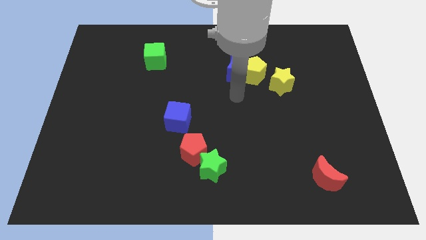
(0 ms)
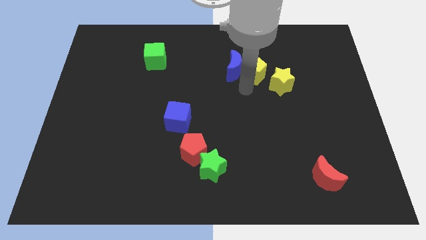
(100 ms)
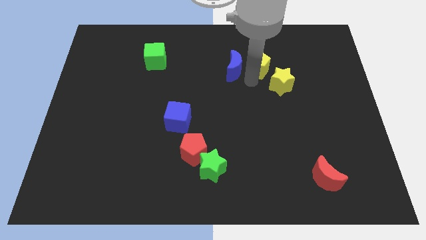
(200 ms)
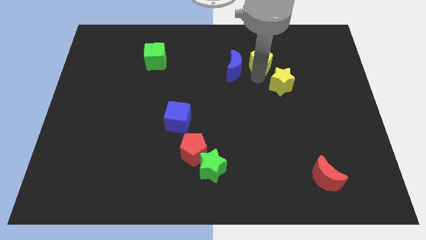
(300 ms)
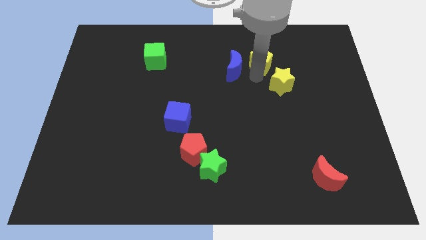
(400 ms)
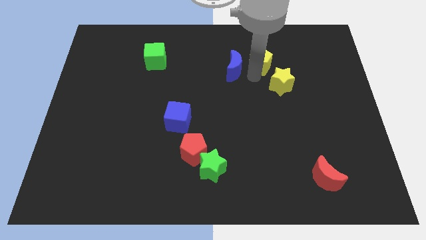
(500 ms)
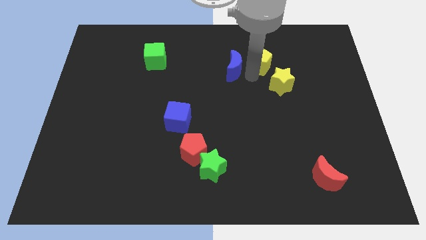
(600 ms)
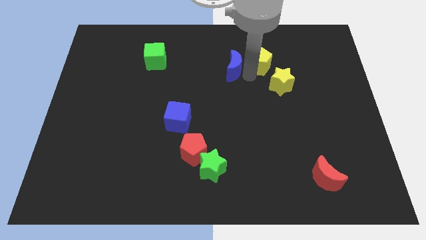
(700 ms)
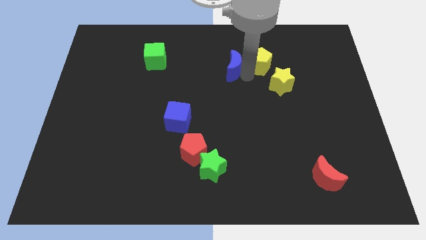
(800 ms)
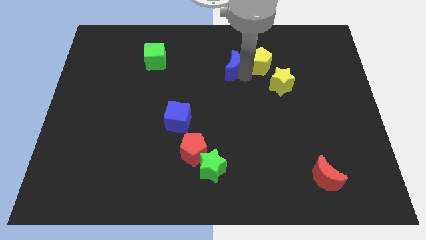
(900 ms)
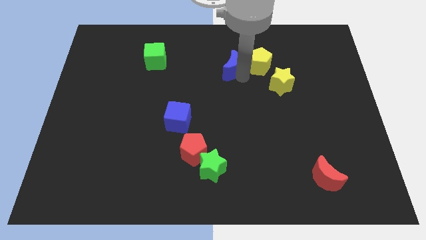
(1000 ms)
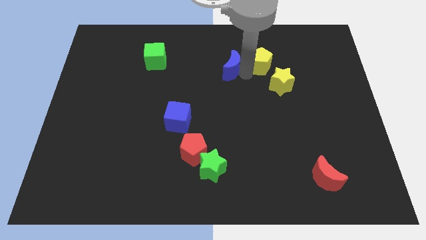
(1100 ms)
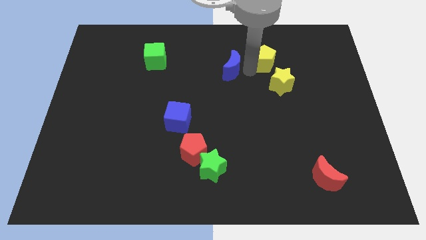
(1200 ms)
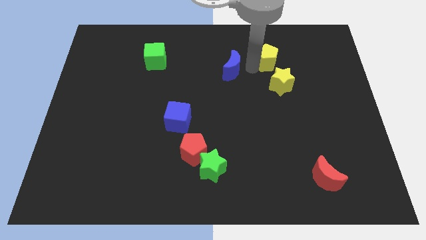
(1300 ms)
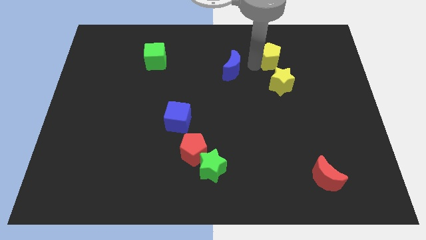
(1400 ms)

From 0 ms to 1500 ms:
separate the blue moon from the yellow pentagon

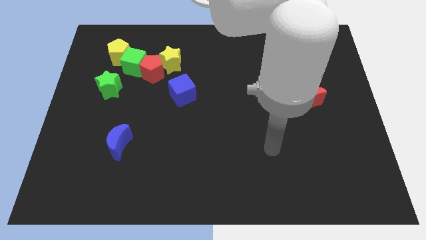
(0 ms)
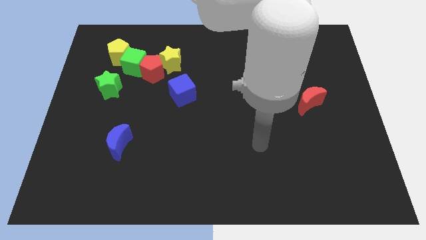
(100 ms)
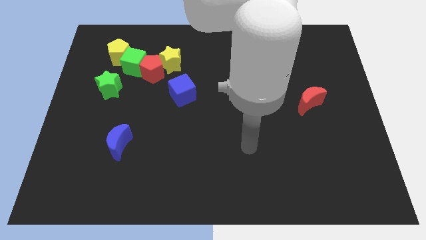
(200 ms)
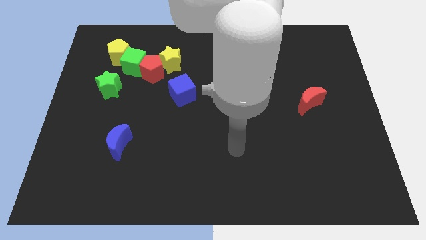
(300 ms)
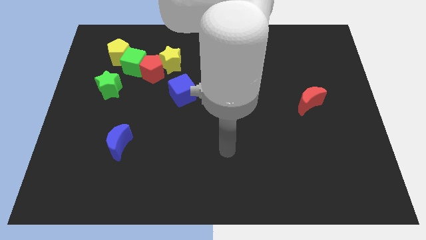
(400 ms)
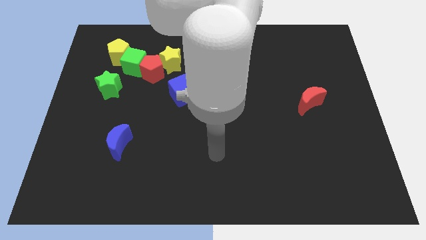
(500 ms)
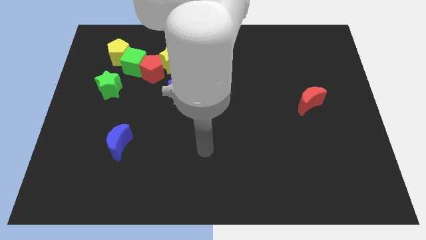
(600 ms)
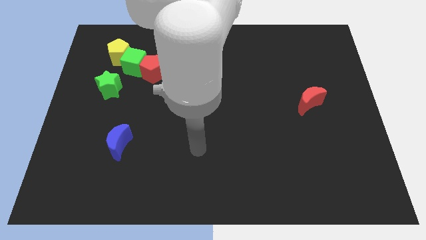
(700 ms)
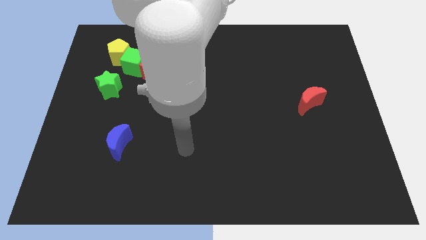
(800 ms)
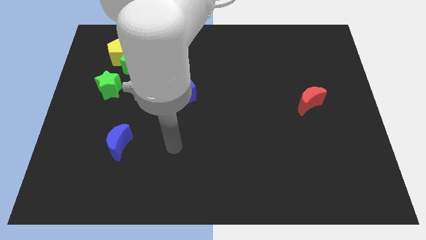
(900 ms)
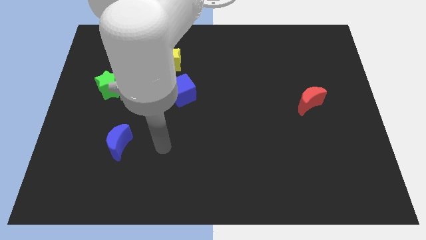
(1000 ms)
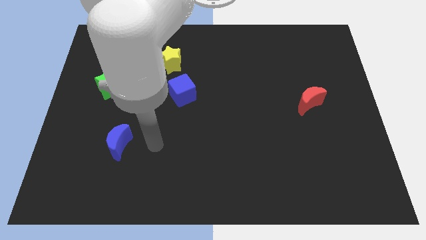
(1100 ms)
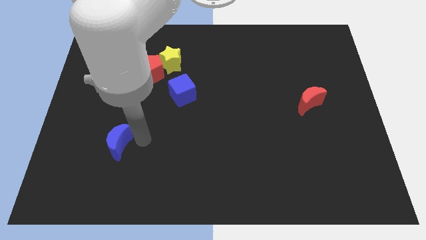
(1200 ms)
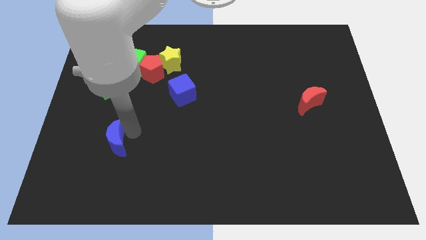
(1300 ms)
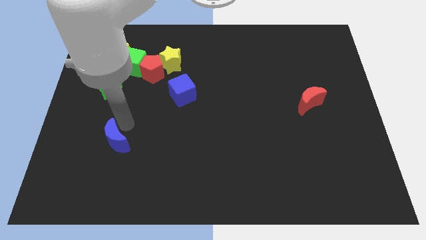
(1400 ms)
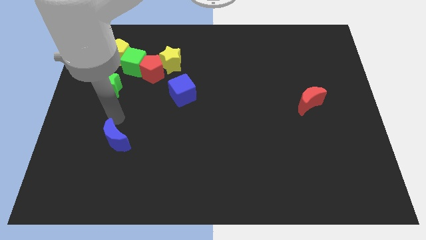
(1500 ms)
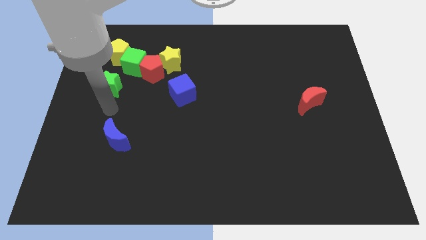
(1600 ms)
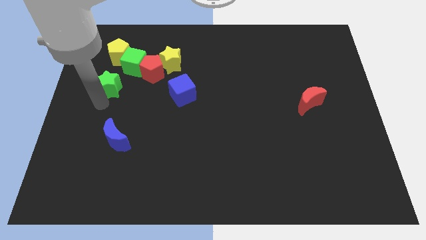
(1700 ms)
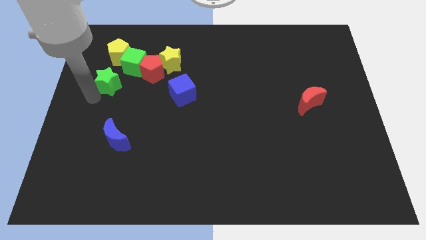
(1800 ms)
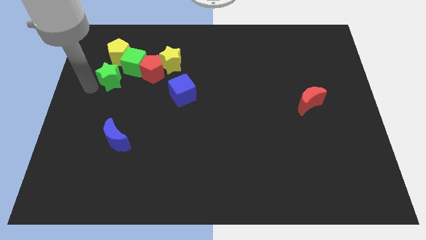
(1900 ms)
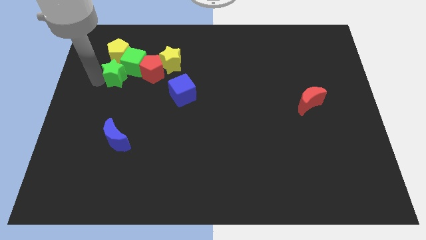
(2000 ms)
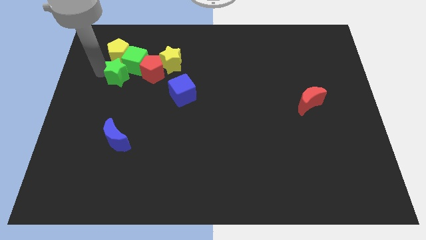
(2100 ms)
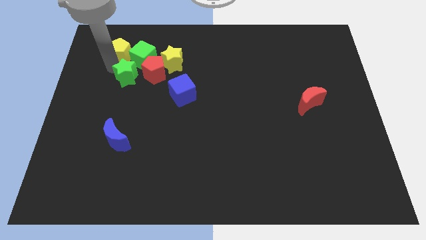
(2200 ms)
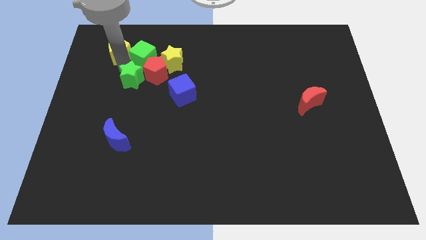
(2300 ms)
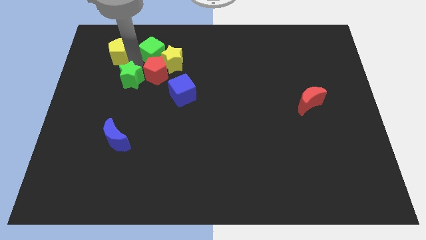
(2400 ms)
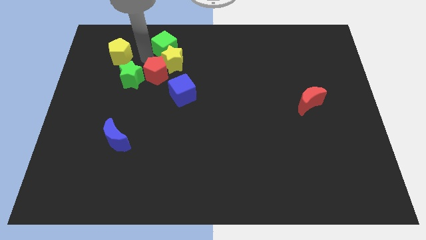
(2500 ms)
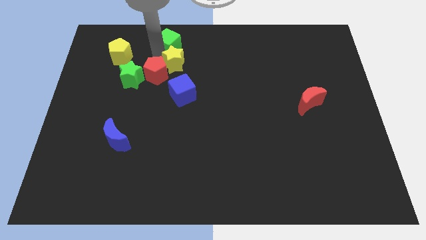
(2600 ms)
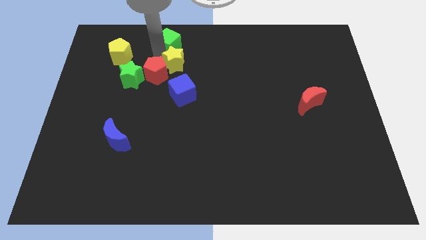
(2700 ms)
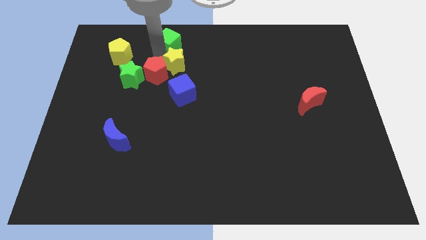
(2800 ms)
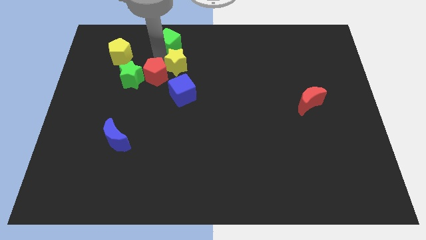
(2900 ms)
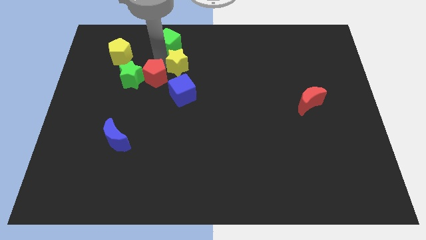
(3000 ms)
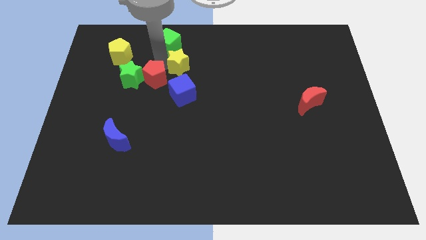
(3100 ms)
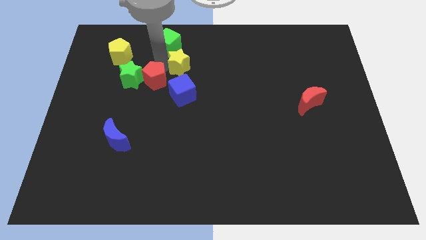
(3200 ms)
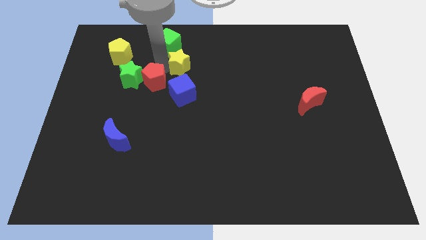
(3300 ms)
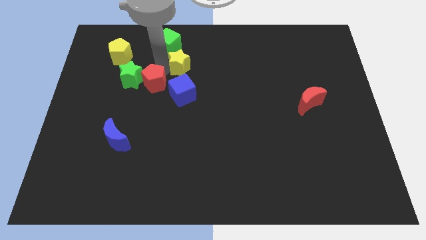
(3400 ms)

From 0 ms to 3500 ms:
pull the red pentagon apart from the yellow star and green cube

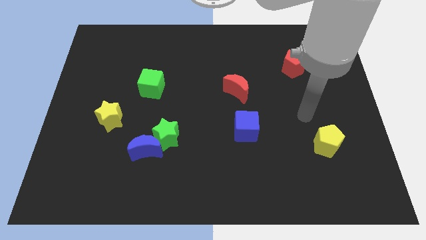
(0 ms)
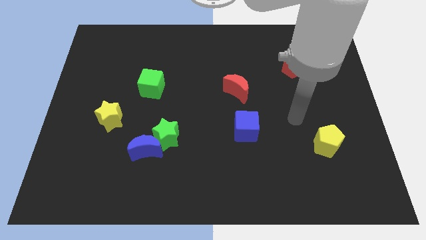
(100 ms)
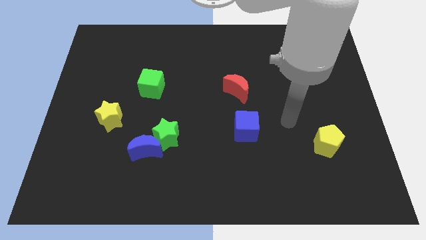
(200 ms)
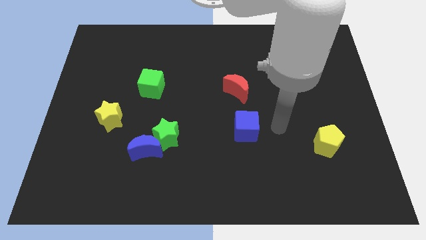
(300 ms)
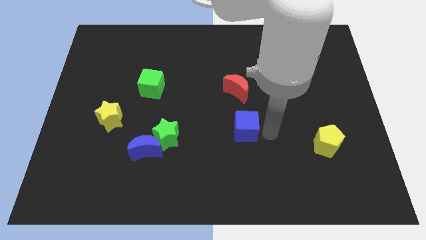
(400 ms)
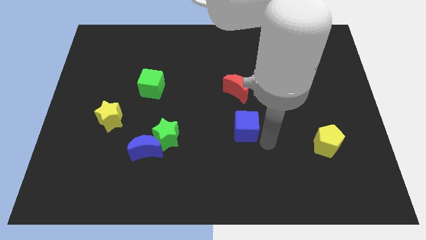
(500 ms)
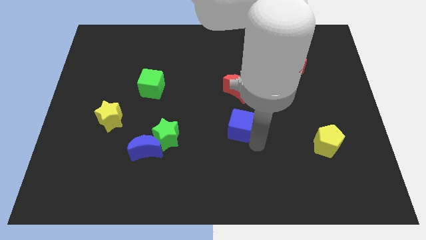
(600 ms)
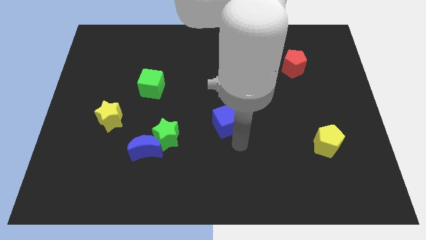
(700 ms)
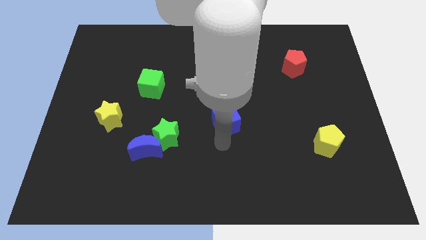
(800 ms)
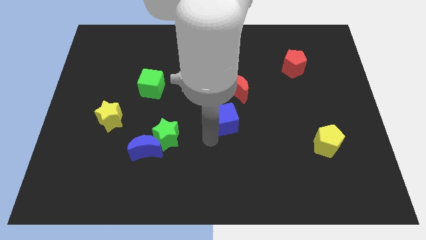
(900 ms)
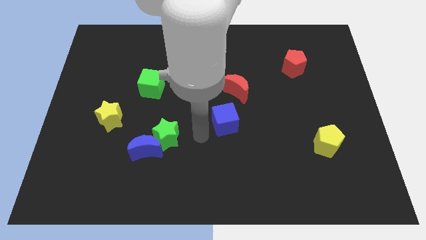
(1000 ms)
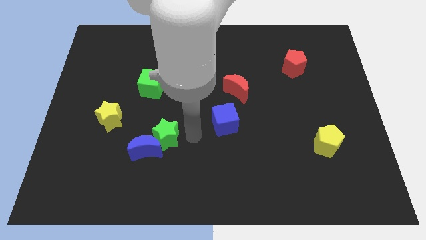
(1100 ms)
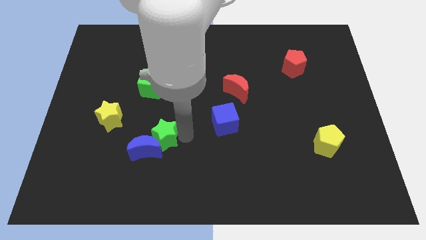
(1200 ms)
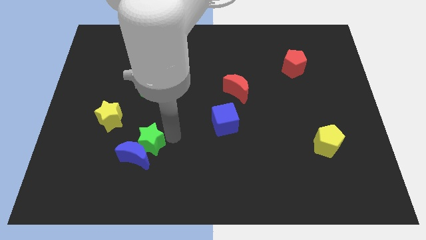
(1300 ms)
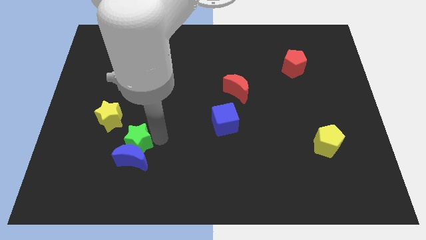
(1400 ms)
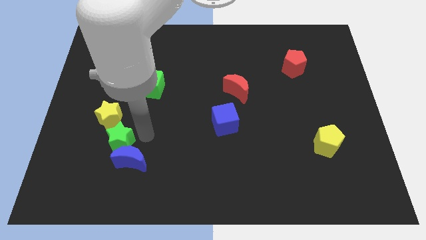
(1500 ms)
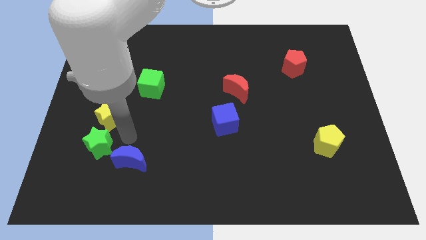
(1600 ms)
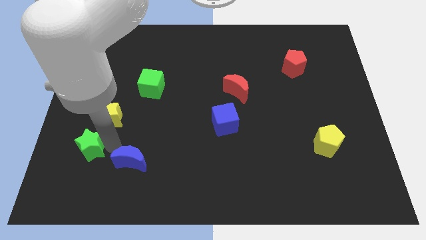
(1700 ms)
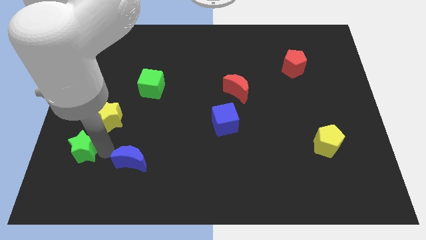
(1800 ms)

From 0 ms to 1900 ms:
pull the blue moon apart from the green star

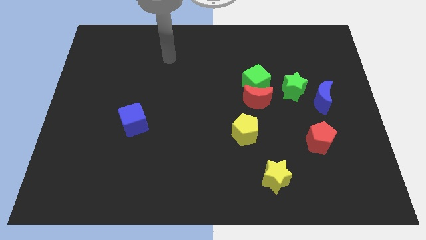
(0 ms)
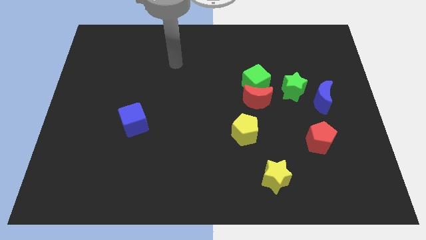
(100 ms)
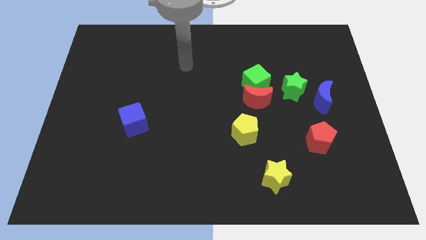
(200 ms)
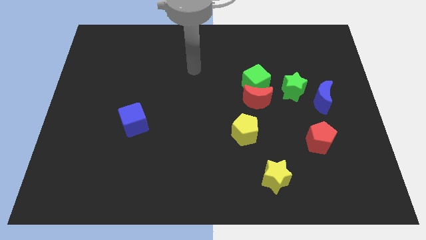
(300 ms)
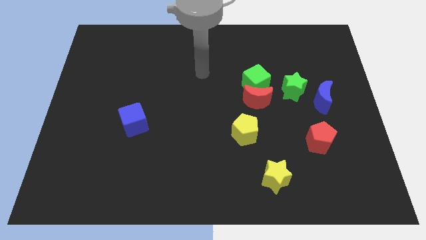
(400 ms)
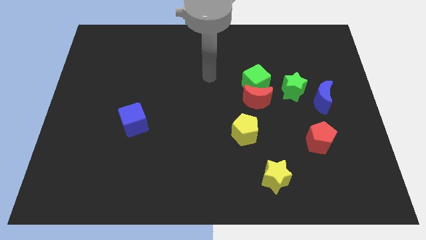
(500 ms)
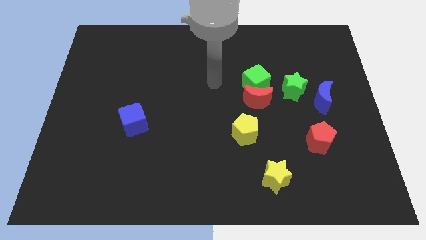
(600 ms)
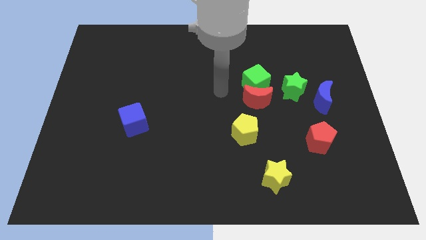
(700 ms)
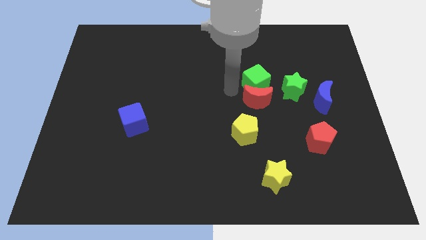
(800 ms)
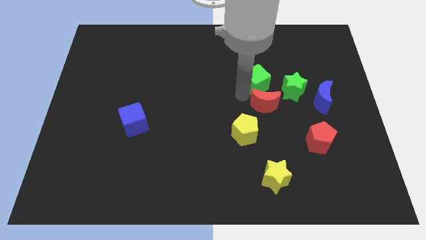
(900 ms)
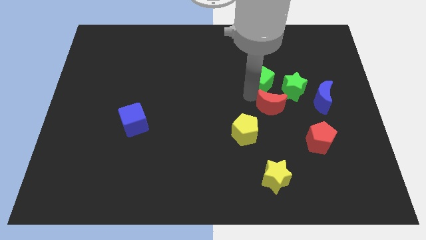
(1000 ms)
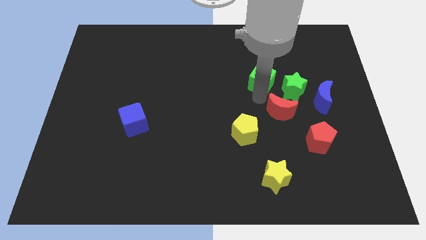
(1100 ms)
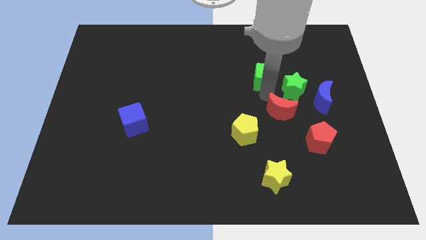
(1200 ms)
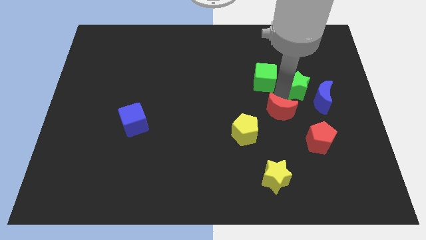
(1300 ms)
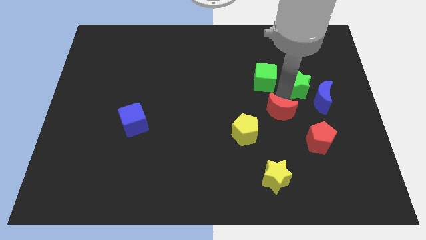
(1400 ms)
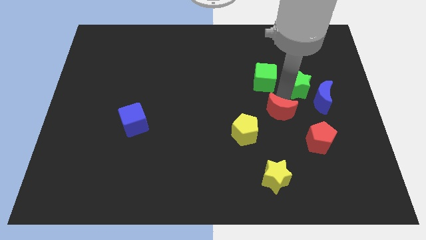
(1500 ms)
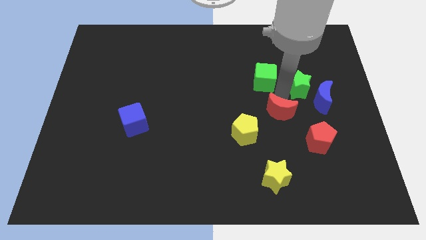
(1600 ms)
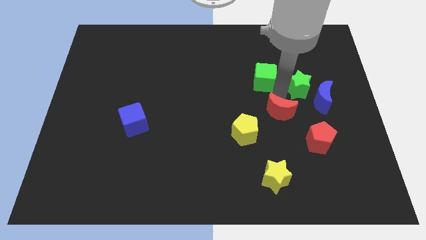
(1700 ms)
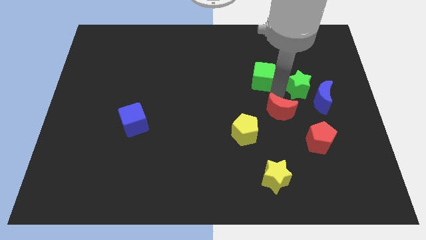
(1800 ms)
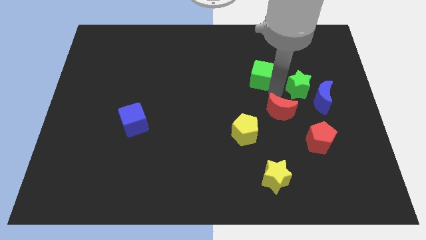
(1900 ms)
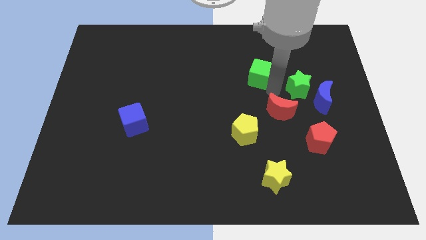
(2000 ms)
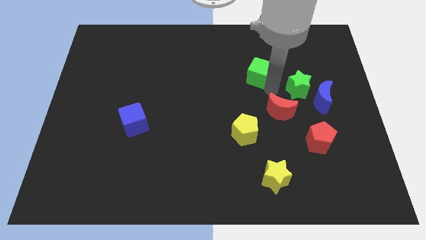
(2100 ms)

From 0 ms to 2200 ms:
move the green cube away from the red moon and green star

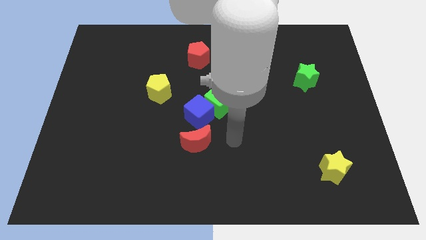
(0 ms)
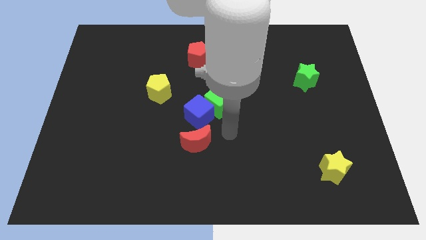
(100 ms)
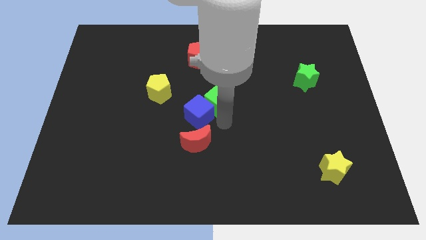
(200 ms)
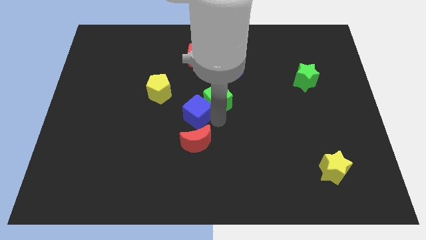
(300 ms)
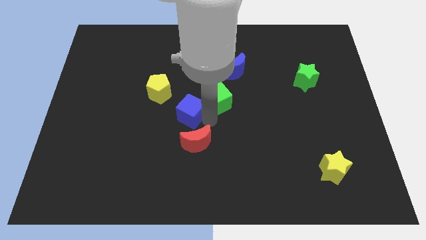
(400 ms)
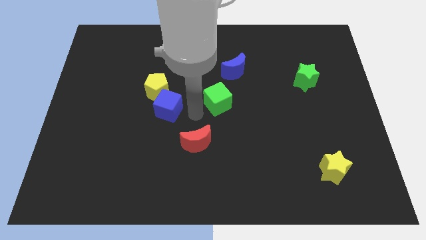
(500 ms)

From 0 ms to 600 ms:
move the green cube away from the blue cube
